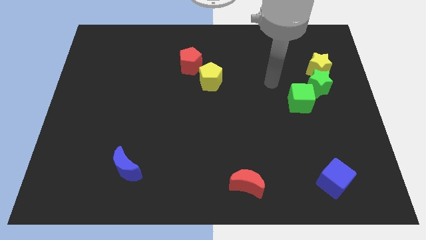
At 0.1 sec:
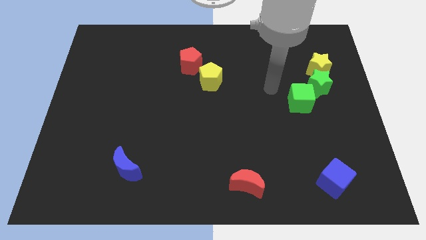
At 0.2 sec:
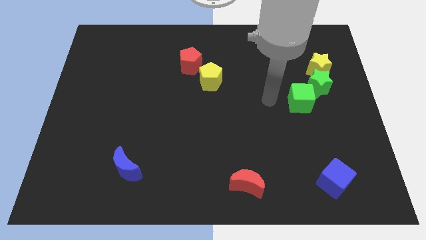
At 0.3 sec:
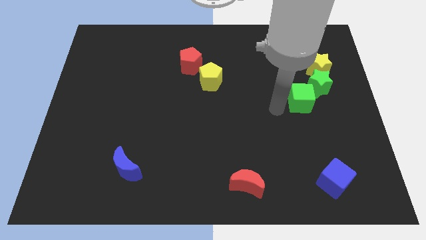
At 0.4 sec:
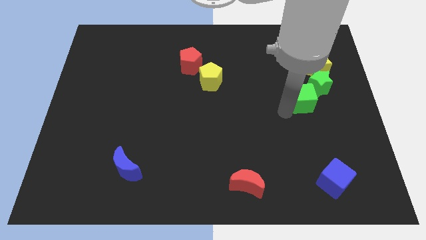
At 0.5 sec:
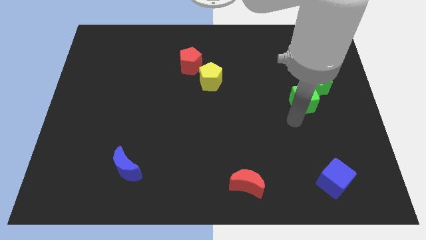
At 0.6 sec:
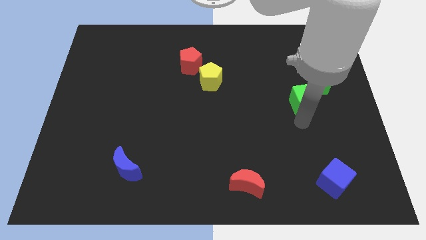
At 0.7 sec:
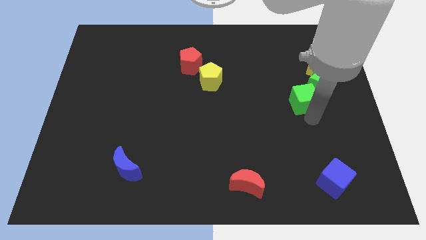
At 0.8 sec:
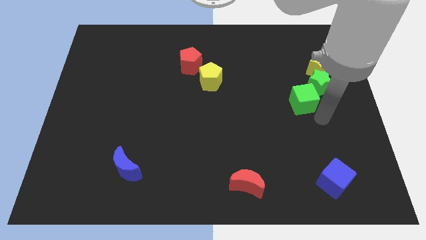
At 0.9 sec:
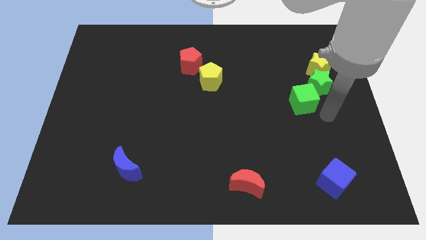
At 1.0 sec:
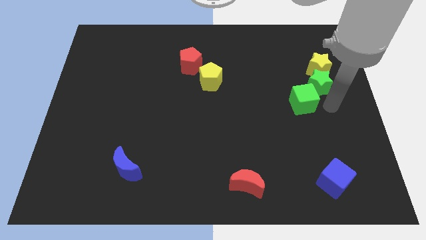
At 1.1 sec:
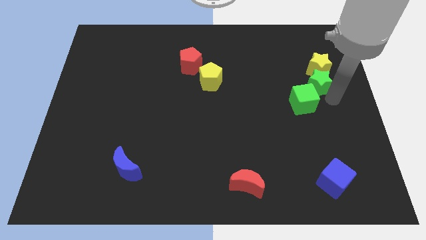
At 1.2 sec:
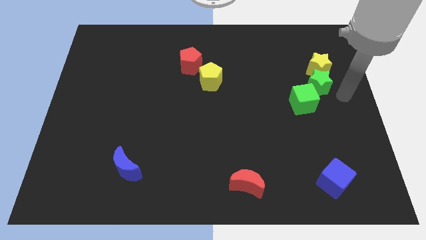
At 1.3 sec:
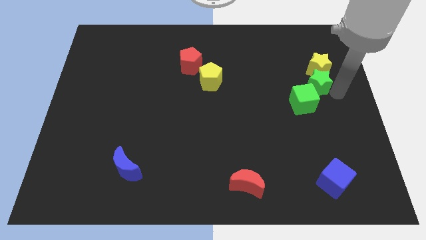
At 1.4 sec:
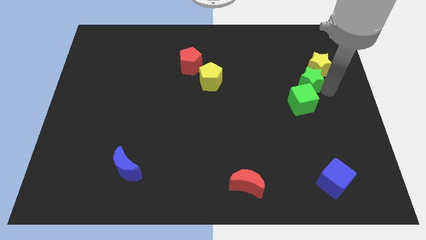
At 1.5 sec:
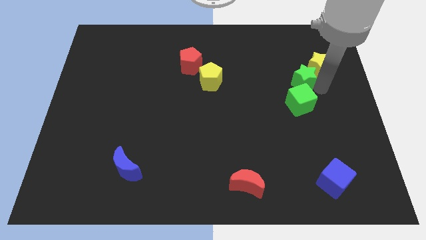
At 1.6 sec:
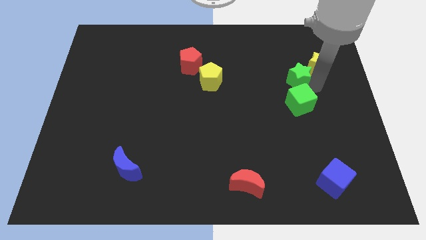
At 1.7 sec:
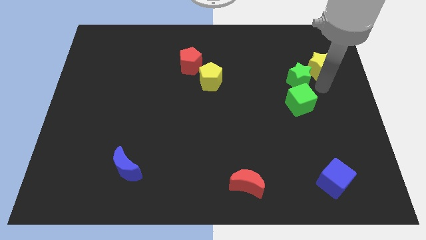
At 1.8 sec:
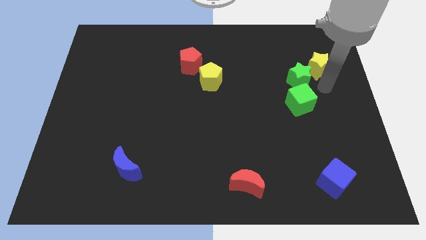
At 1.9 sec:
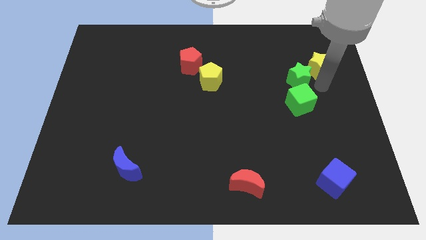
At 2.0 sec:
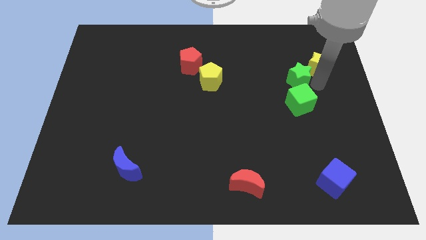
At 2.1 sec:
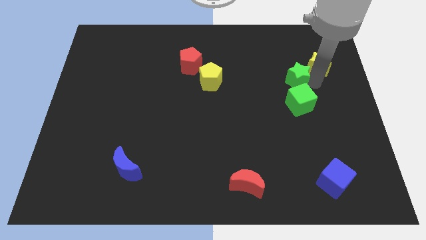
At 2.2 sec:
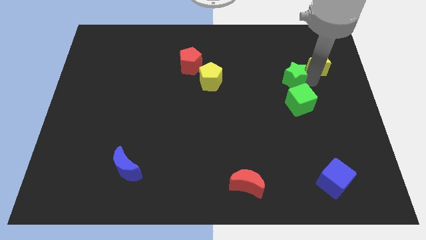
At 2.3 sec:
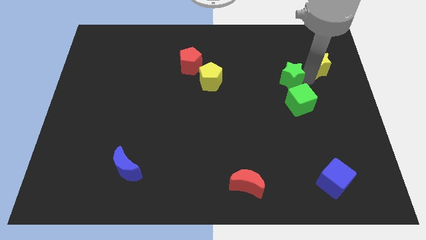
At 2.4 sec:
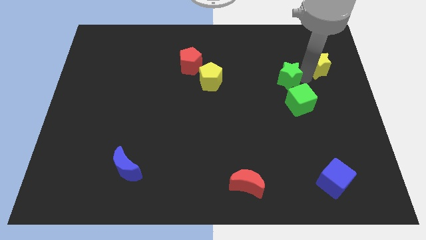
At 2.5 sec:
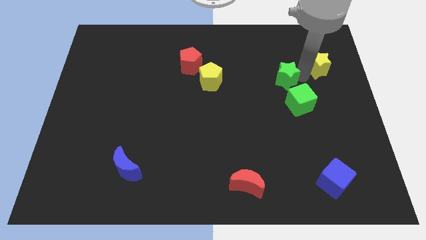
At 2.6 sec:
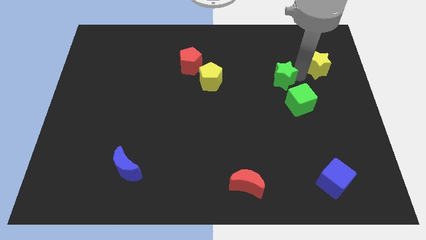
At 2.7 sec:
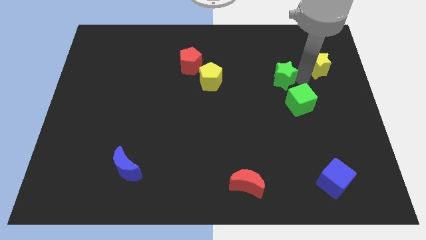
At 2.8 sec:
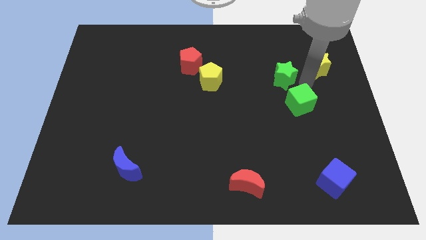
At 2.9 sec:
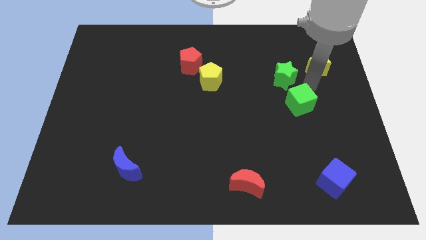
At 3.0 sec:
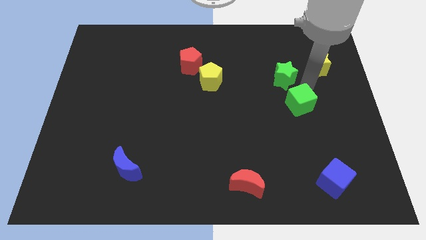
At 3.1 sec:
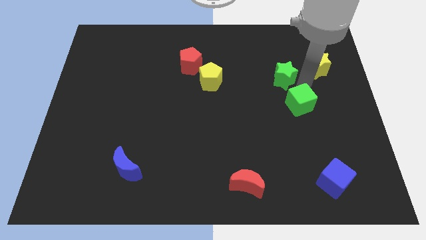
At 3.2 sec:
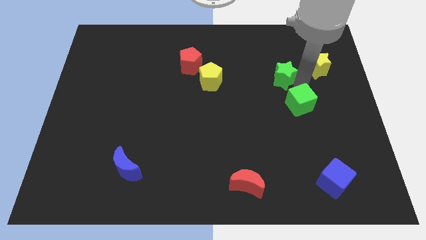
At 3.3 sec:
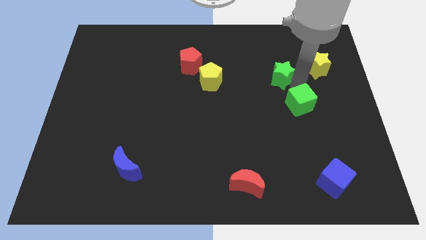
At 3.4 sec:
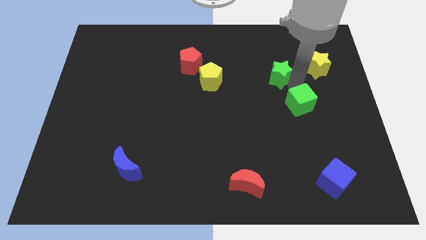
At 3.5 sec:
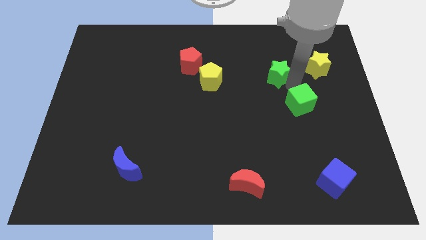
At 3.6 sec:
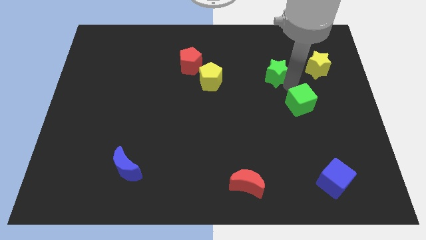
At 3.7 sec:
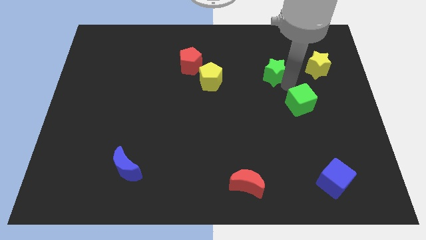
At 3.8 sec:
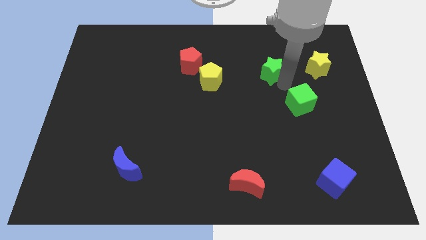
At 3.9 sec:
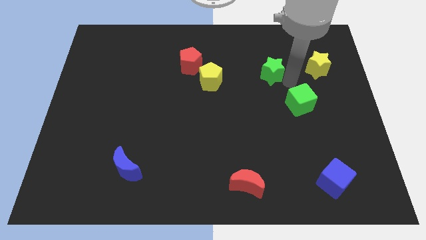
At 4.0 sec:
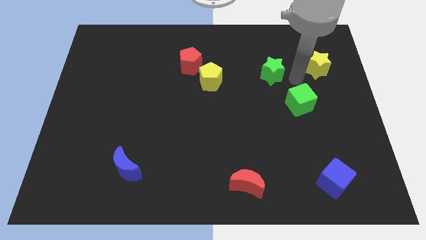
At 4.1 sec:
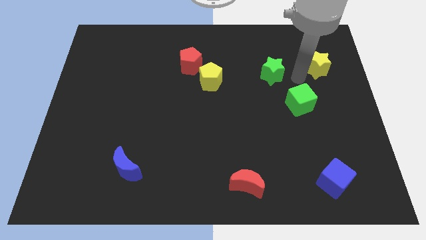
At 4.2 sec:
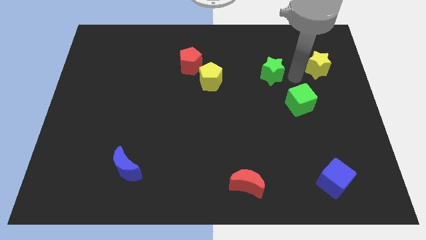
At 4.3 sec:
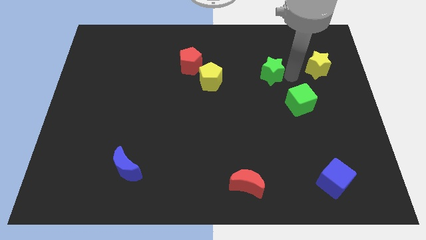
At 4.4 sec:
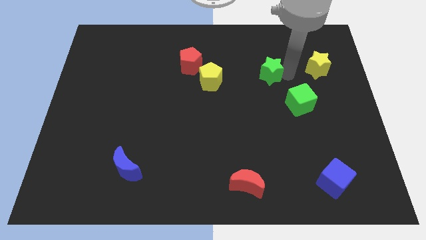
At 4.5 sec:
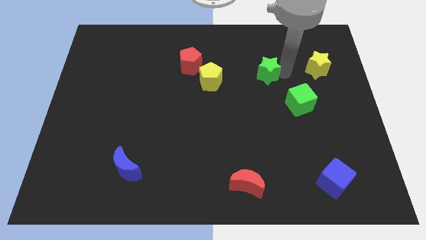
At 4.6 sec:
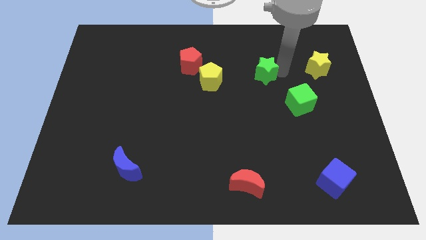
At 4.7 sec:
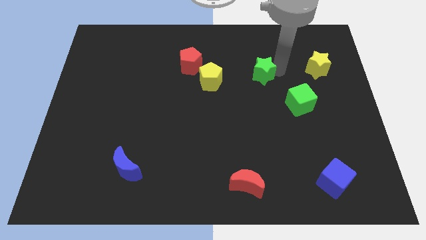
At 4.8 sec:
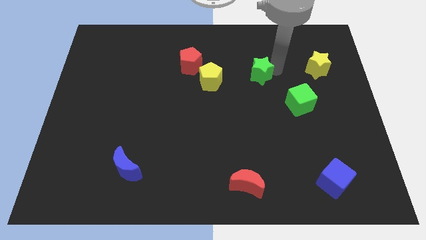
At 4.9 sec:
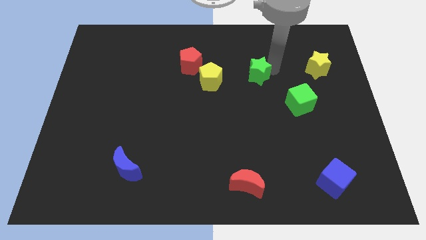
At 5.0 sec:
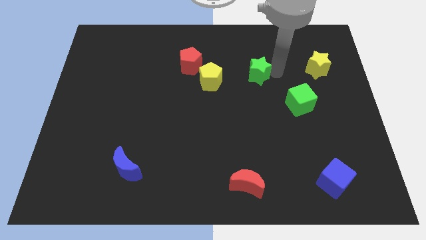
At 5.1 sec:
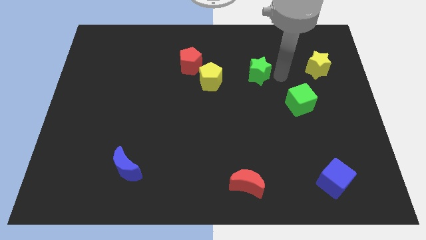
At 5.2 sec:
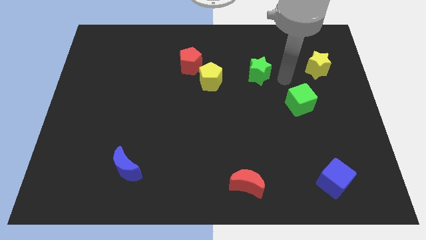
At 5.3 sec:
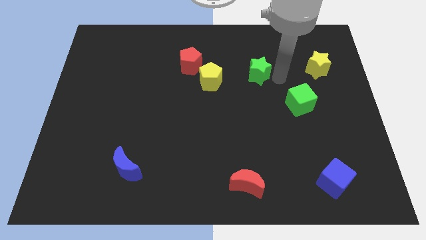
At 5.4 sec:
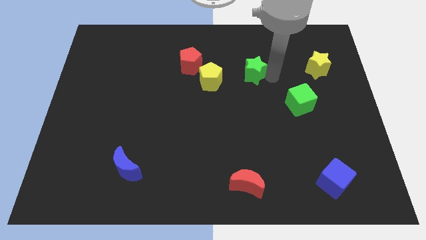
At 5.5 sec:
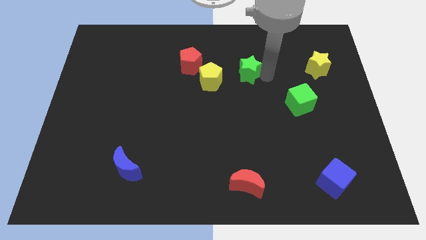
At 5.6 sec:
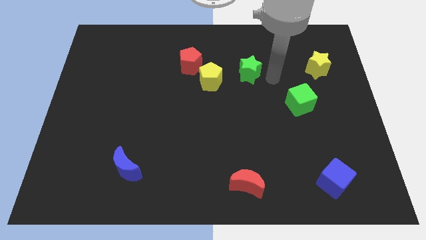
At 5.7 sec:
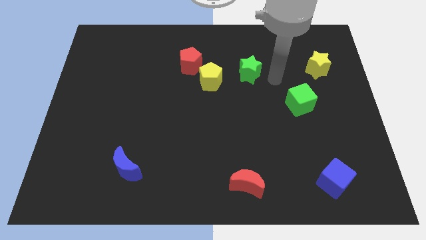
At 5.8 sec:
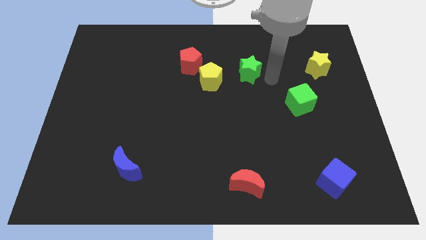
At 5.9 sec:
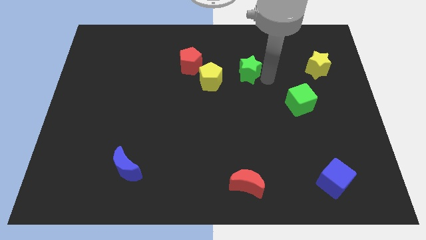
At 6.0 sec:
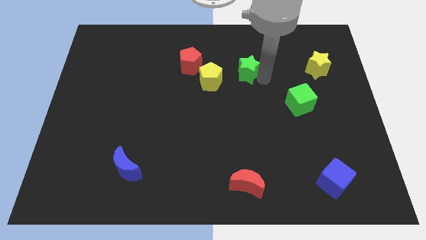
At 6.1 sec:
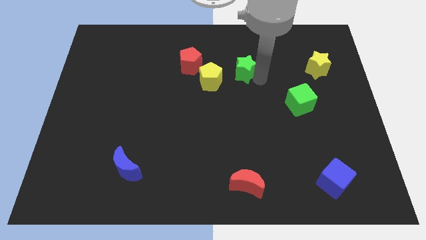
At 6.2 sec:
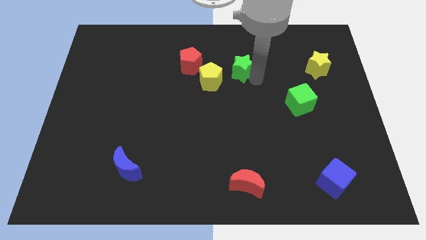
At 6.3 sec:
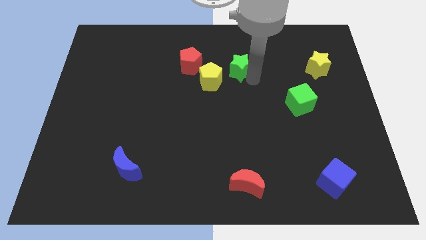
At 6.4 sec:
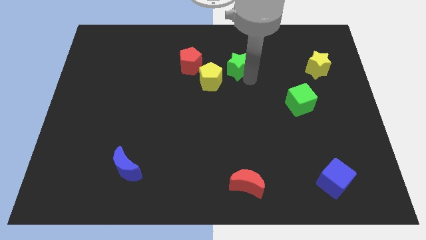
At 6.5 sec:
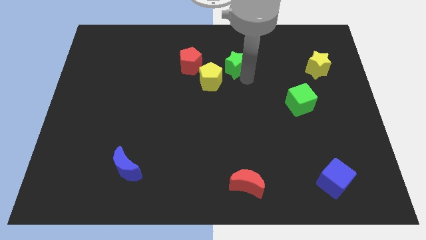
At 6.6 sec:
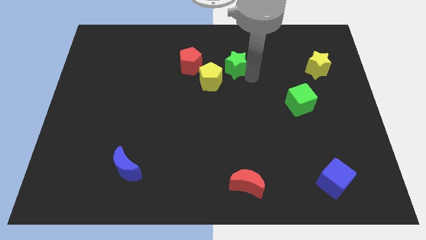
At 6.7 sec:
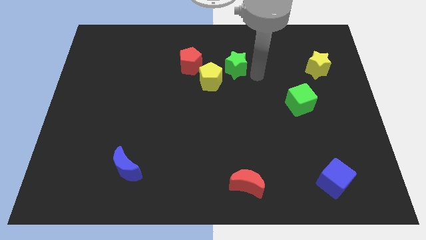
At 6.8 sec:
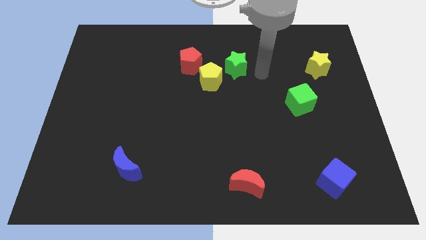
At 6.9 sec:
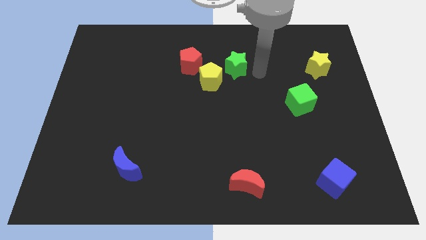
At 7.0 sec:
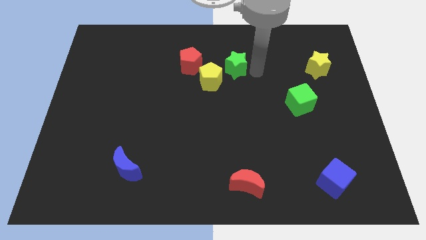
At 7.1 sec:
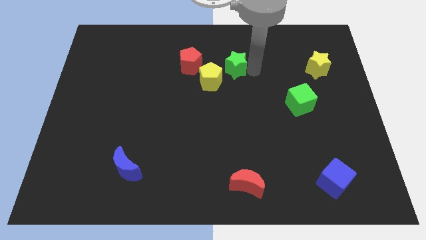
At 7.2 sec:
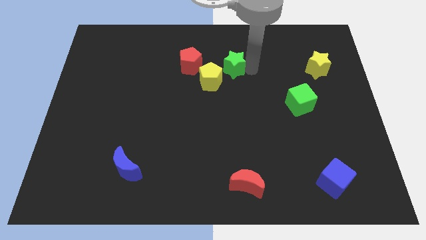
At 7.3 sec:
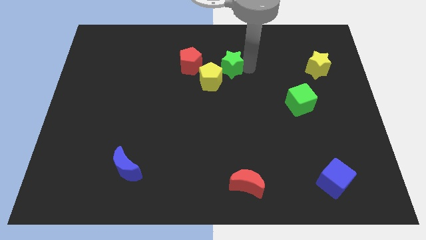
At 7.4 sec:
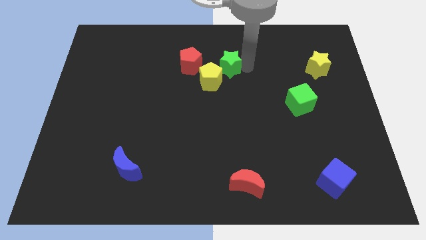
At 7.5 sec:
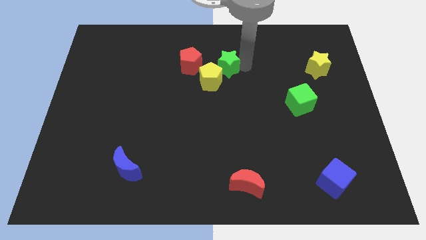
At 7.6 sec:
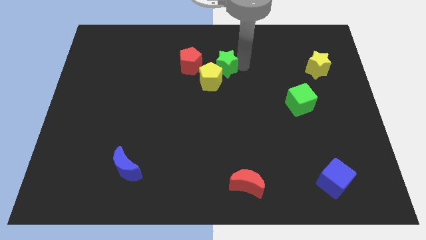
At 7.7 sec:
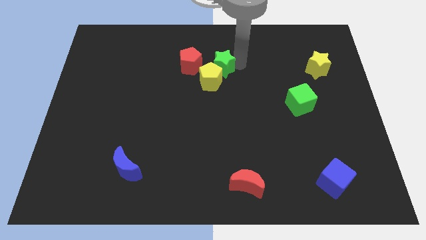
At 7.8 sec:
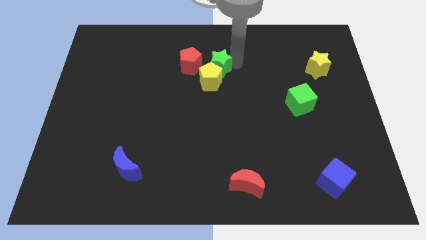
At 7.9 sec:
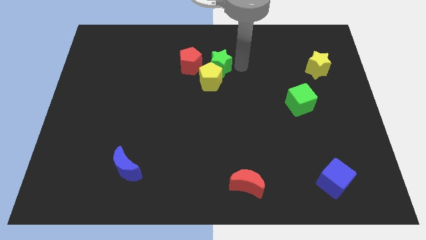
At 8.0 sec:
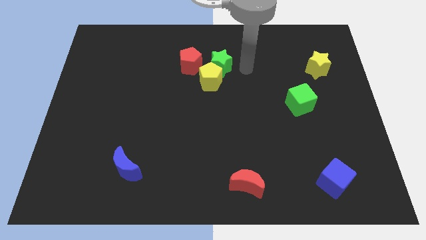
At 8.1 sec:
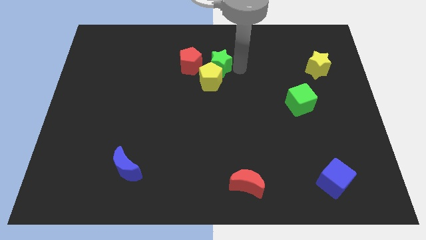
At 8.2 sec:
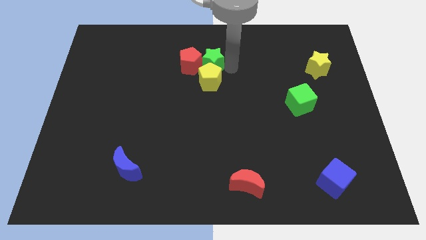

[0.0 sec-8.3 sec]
push the green star close to the red pentagon
